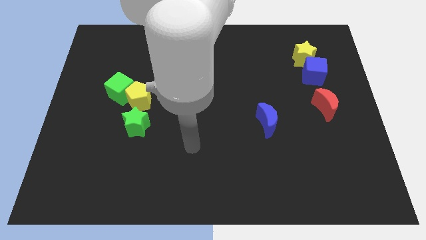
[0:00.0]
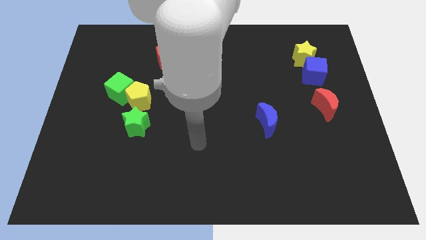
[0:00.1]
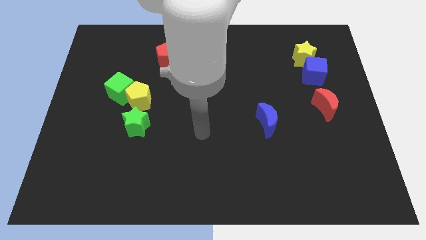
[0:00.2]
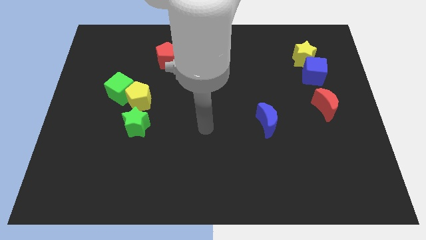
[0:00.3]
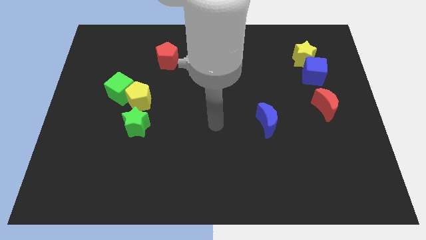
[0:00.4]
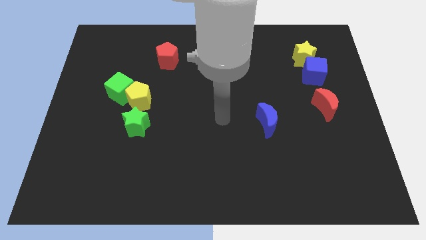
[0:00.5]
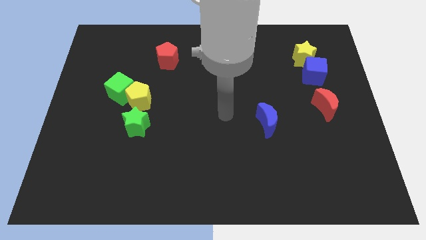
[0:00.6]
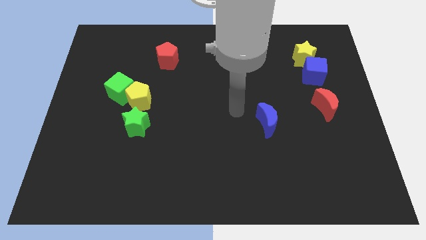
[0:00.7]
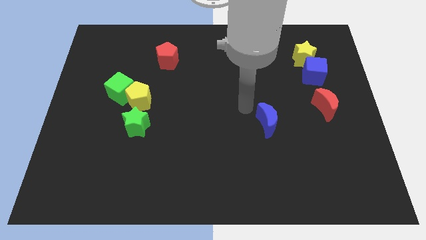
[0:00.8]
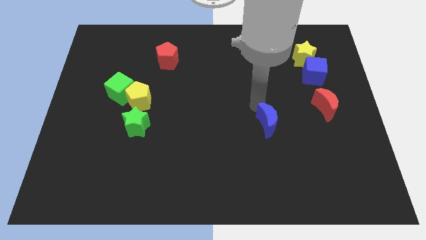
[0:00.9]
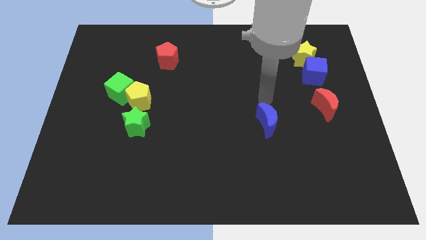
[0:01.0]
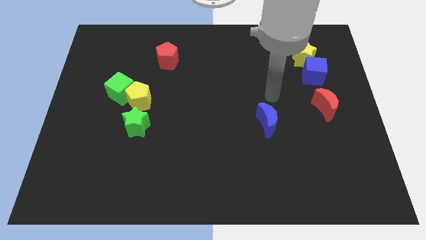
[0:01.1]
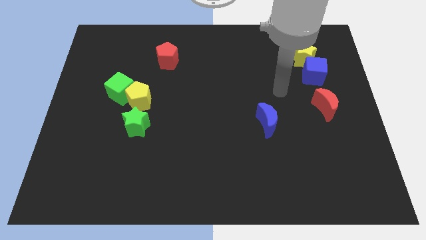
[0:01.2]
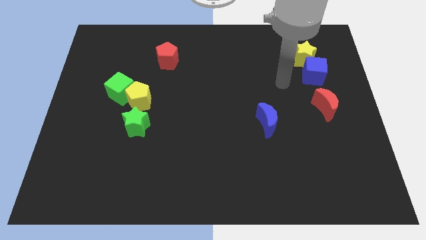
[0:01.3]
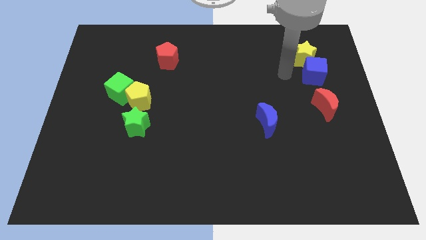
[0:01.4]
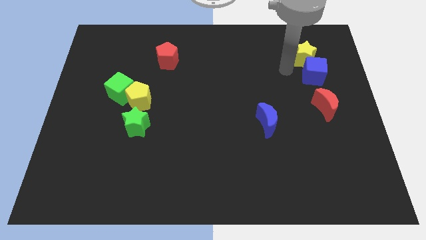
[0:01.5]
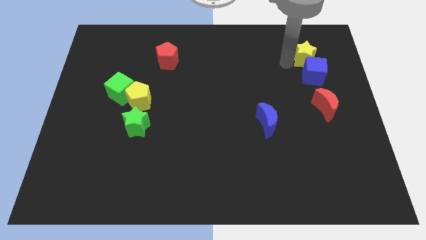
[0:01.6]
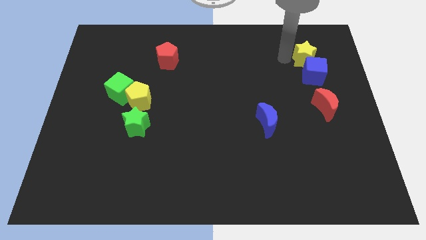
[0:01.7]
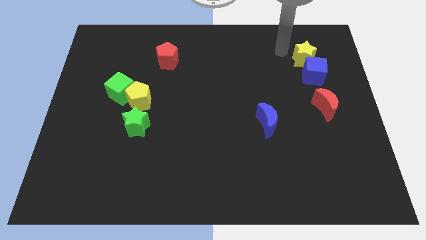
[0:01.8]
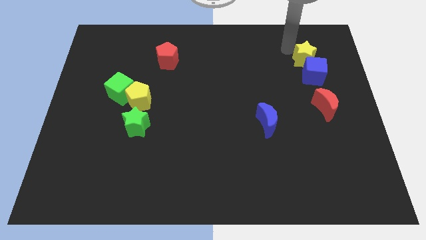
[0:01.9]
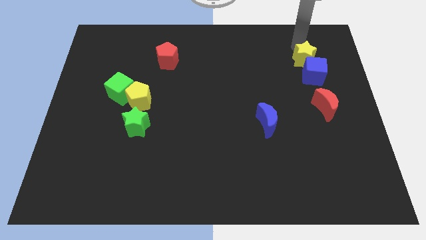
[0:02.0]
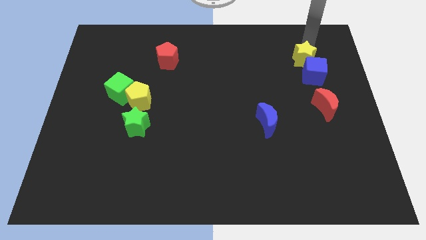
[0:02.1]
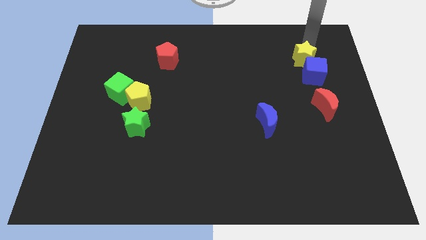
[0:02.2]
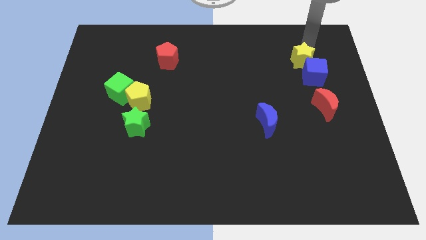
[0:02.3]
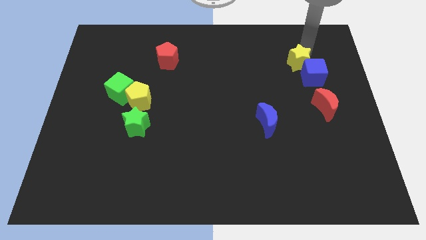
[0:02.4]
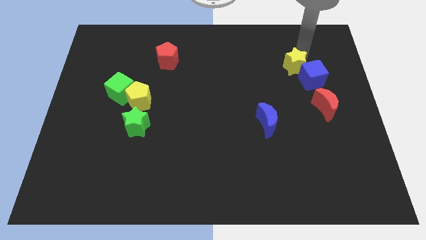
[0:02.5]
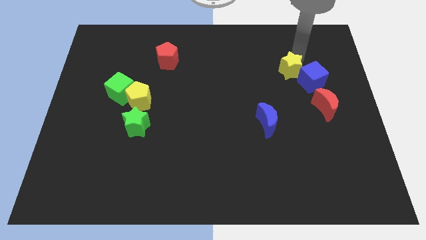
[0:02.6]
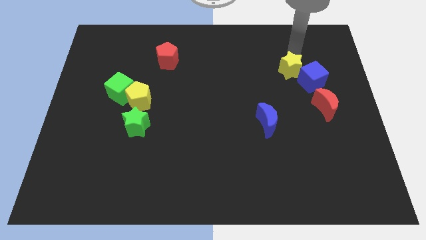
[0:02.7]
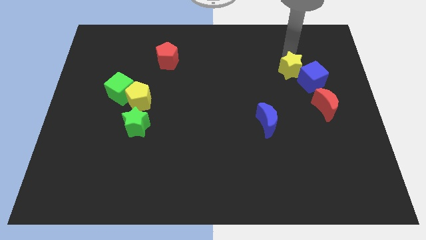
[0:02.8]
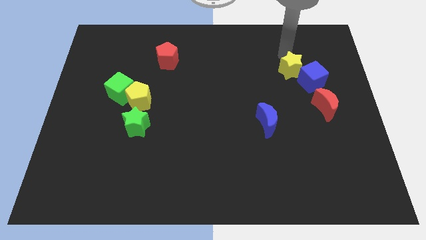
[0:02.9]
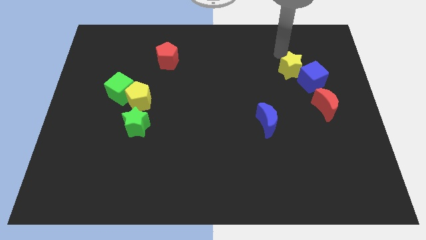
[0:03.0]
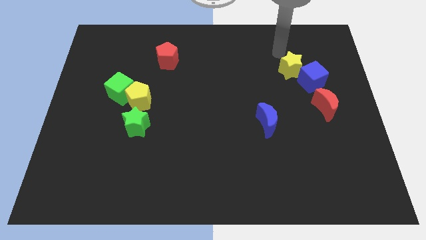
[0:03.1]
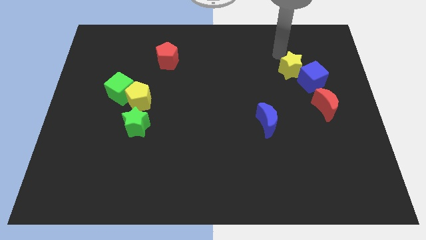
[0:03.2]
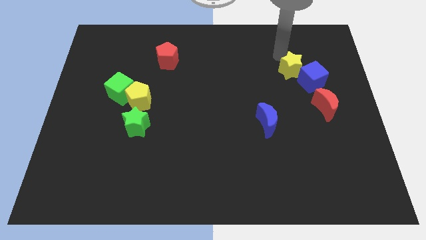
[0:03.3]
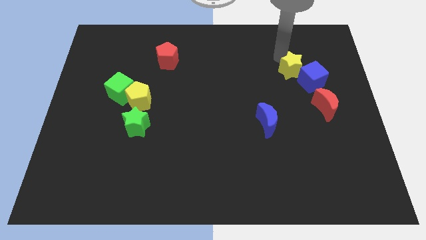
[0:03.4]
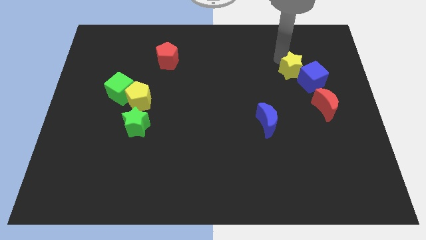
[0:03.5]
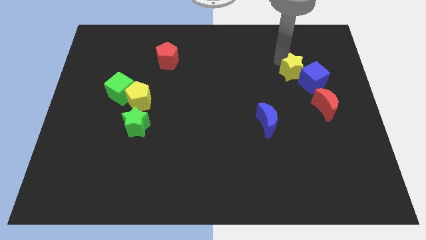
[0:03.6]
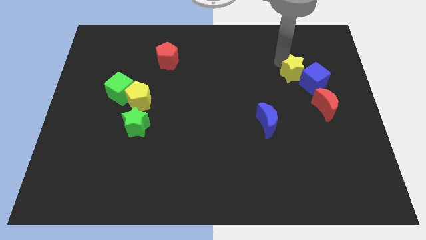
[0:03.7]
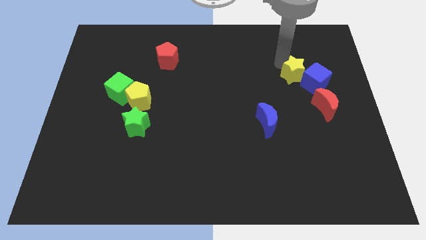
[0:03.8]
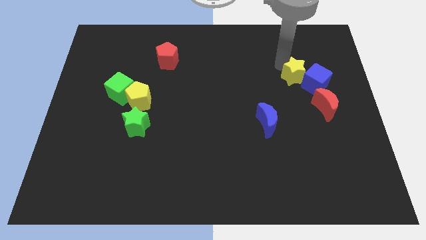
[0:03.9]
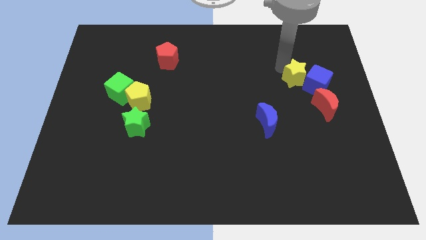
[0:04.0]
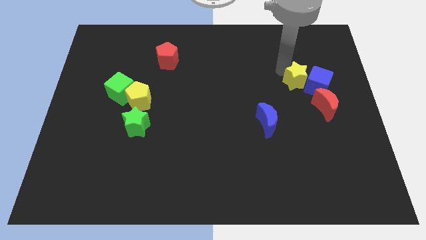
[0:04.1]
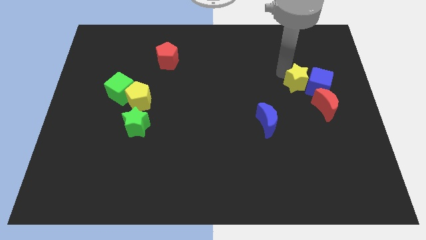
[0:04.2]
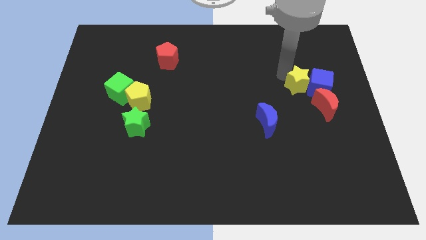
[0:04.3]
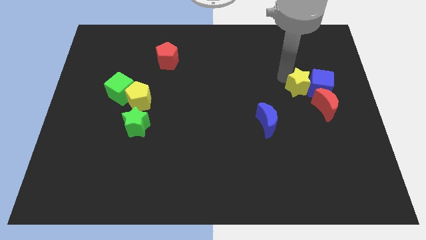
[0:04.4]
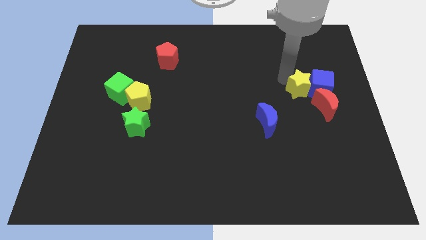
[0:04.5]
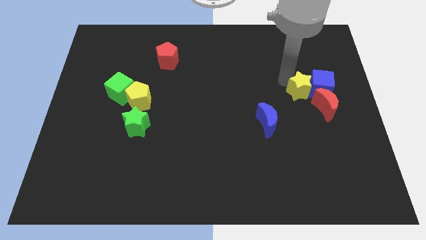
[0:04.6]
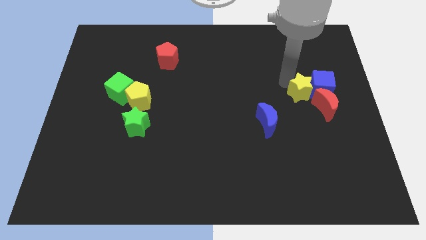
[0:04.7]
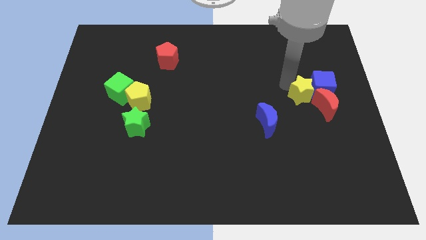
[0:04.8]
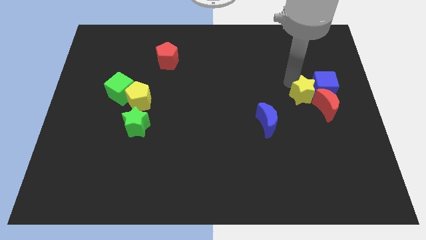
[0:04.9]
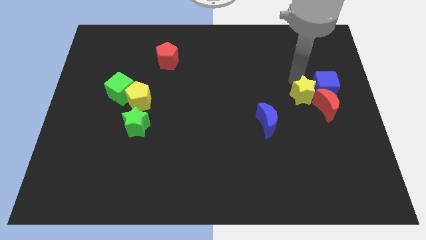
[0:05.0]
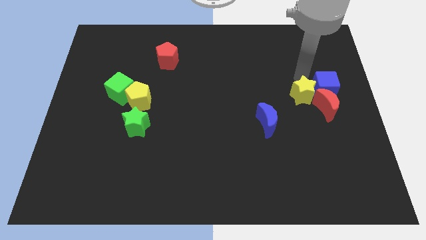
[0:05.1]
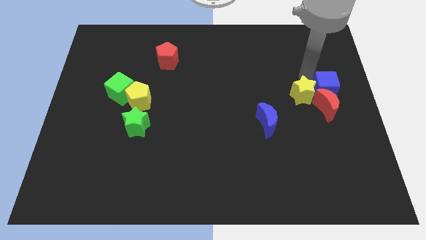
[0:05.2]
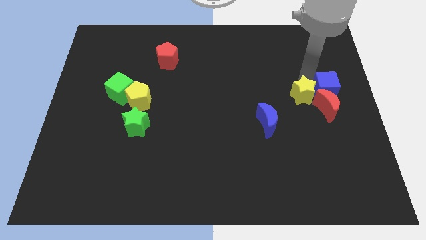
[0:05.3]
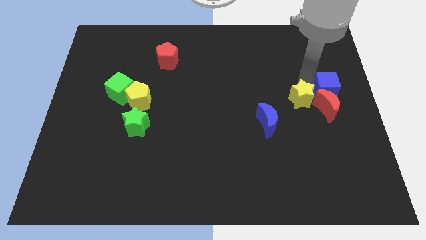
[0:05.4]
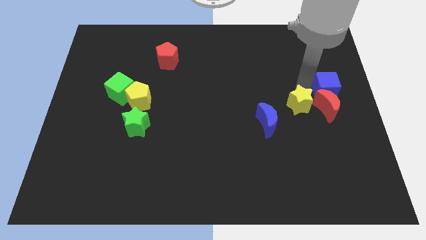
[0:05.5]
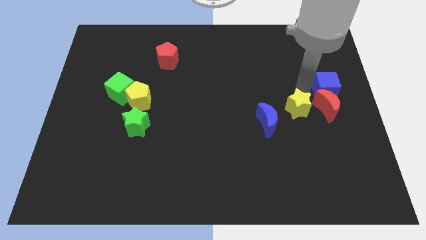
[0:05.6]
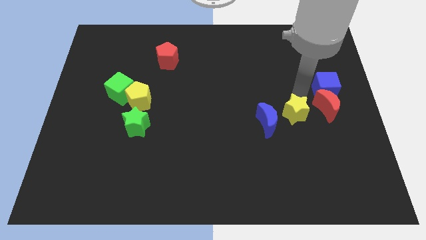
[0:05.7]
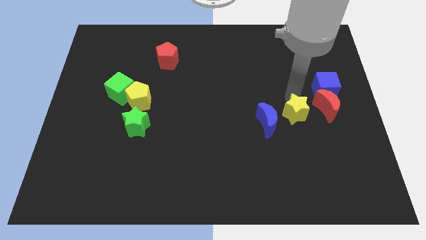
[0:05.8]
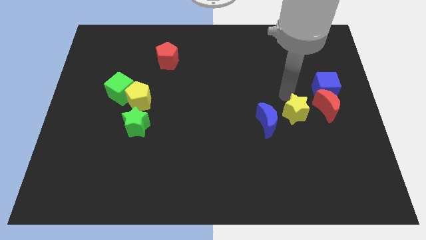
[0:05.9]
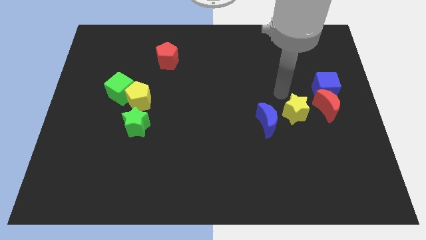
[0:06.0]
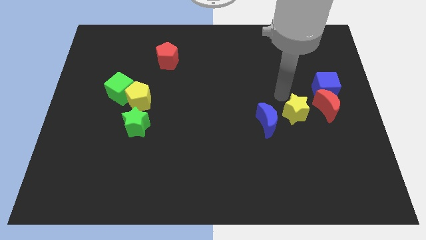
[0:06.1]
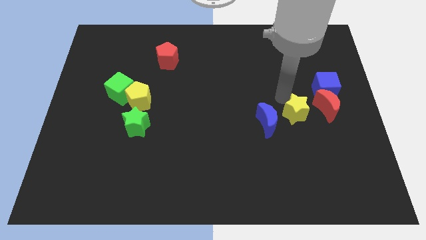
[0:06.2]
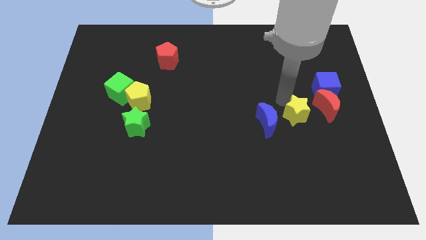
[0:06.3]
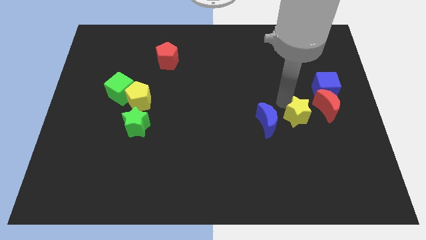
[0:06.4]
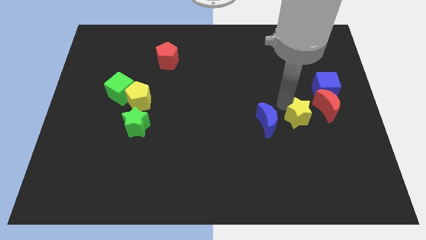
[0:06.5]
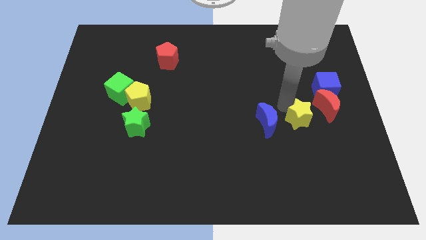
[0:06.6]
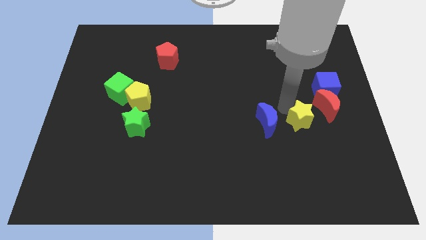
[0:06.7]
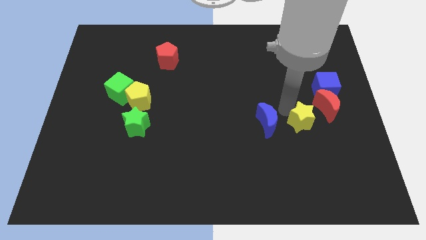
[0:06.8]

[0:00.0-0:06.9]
slide the yellow star down

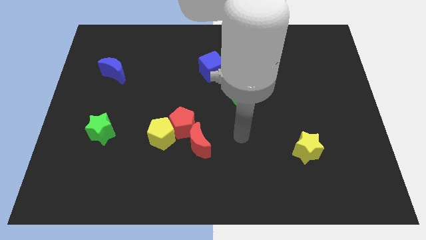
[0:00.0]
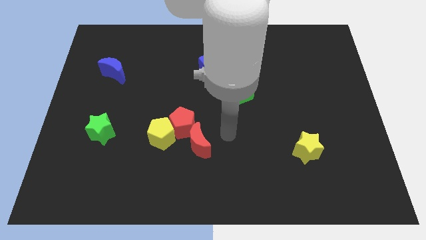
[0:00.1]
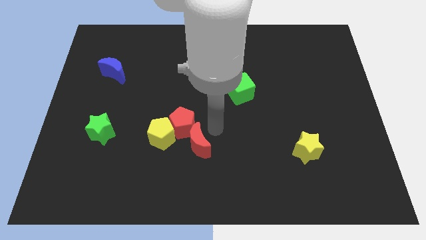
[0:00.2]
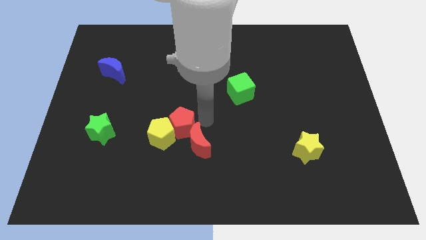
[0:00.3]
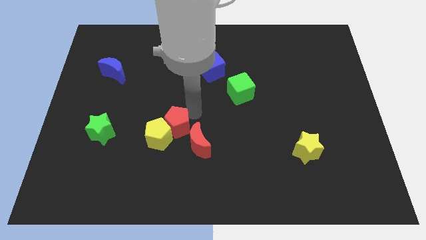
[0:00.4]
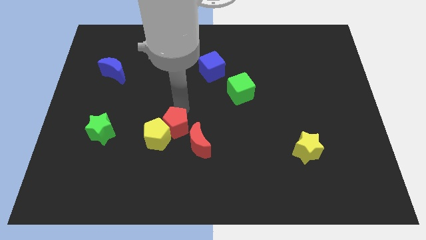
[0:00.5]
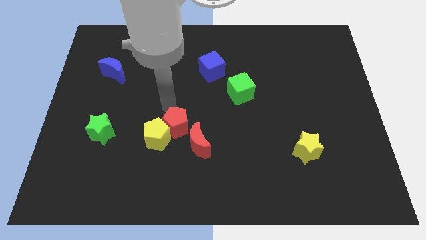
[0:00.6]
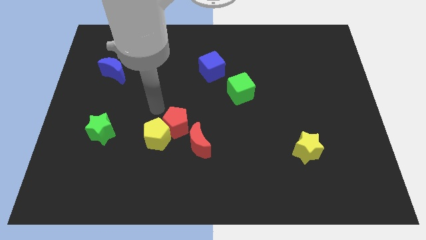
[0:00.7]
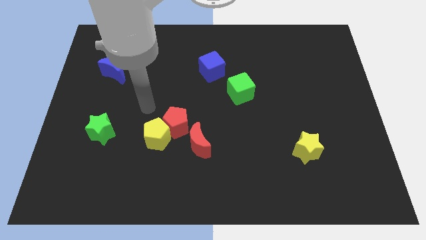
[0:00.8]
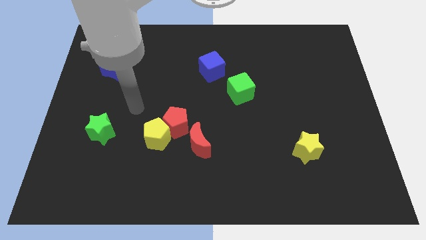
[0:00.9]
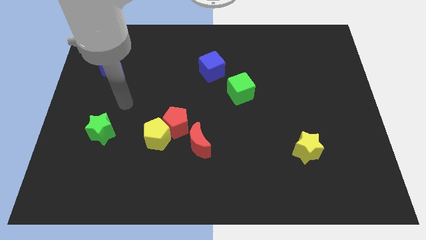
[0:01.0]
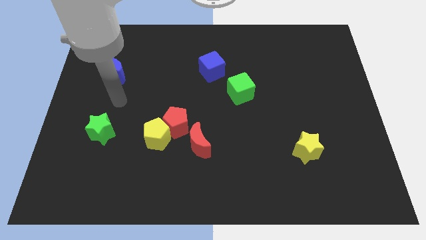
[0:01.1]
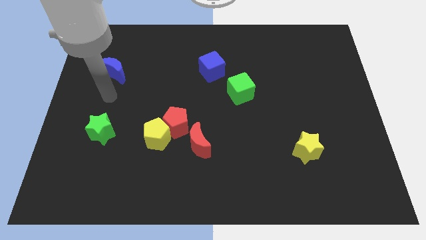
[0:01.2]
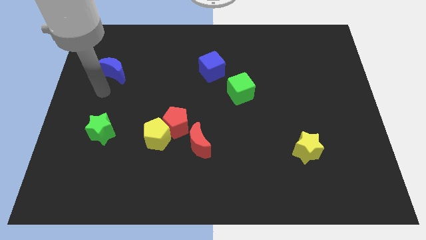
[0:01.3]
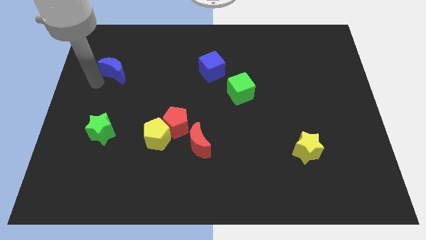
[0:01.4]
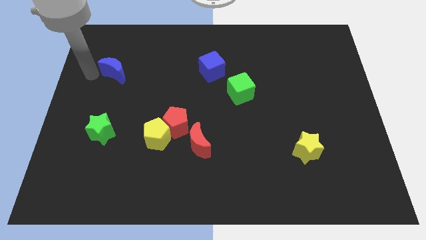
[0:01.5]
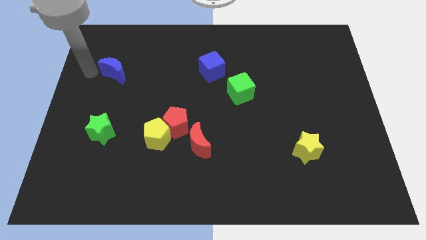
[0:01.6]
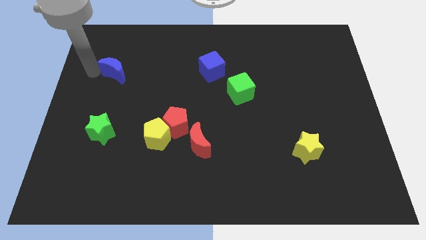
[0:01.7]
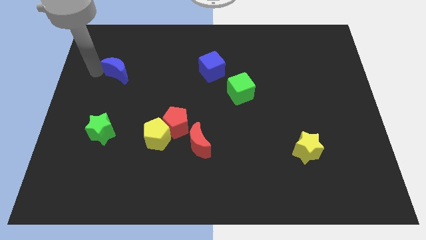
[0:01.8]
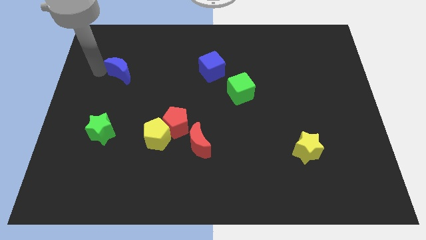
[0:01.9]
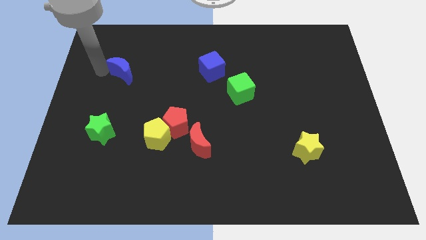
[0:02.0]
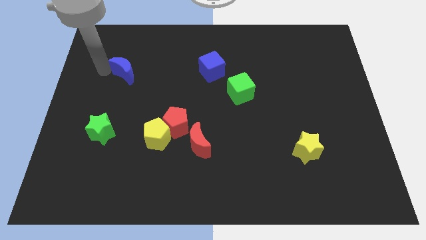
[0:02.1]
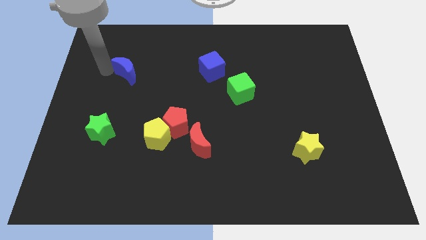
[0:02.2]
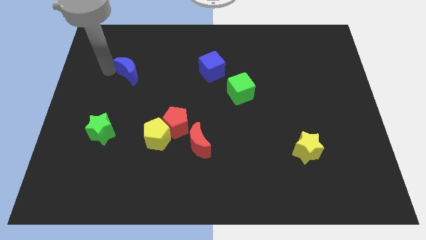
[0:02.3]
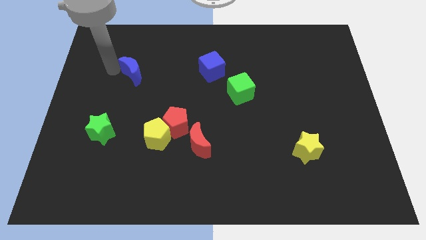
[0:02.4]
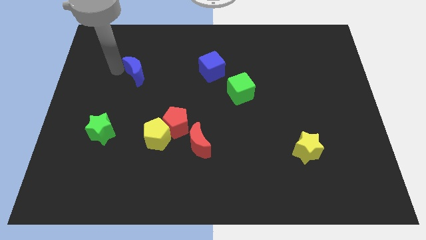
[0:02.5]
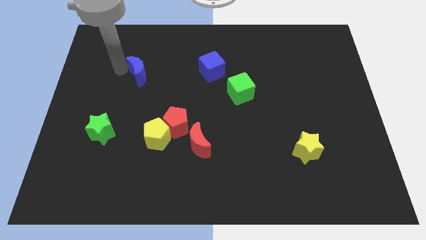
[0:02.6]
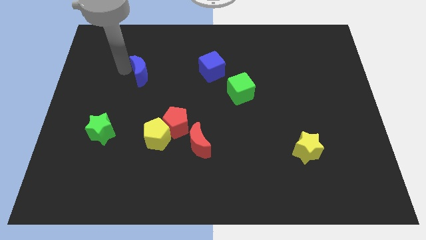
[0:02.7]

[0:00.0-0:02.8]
slightly slide the blue moon right
